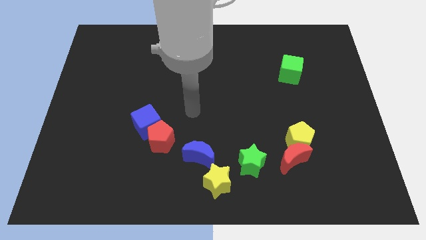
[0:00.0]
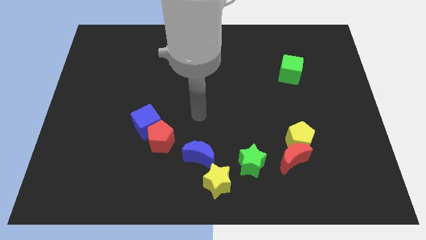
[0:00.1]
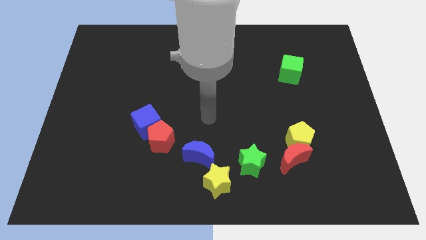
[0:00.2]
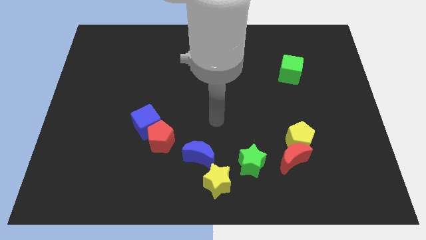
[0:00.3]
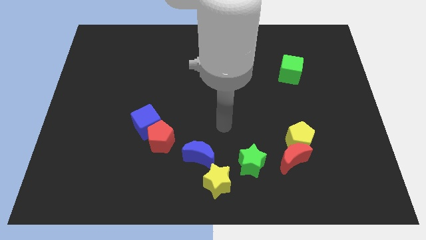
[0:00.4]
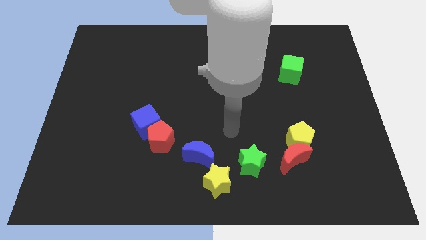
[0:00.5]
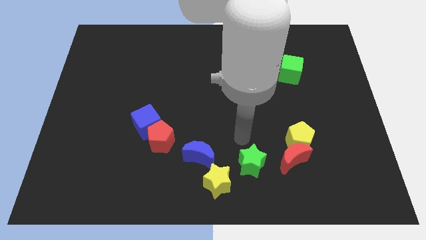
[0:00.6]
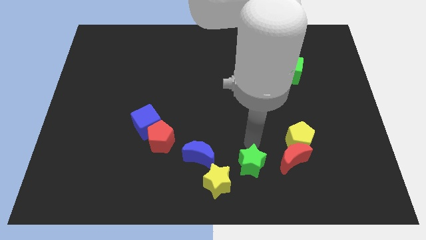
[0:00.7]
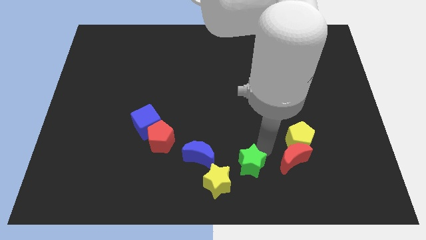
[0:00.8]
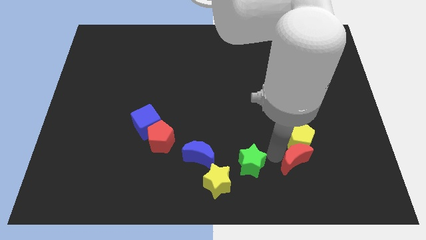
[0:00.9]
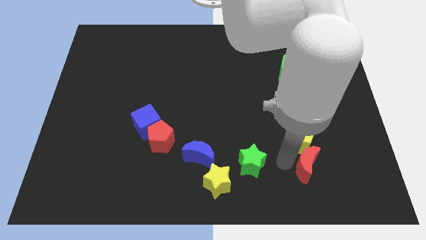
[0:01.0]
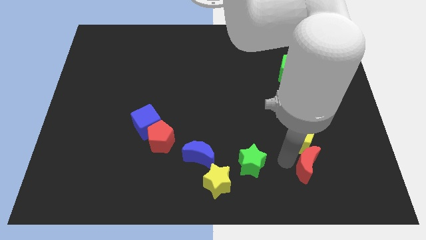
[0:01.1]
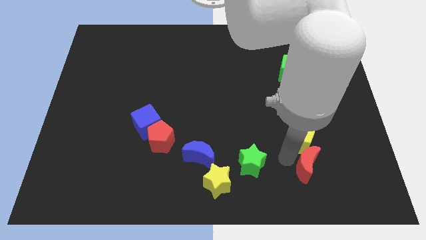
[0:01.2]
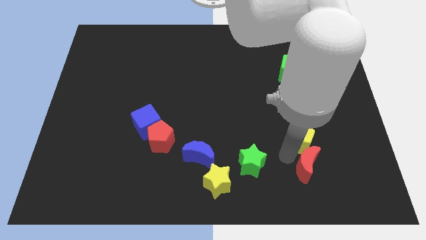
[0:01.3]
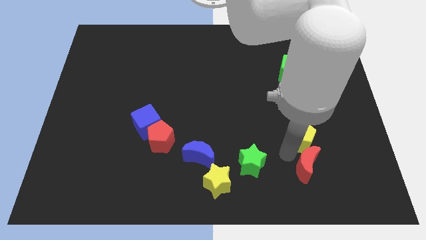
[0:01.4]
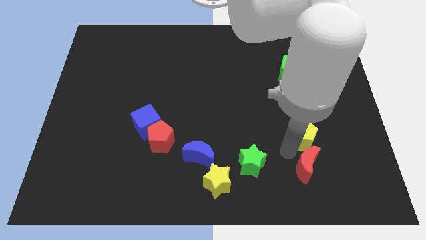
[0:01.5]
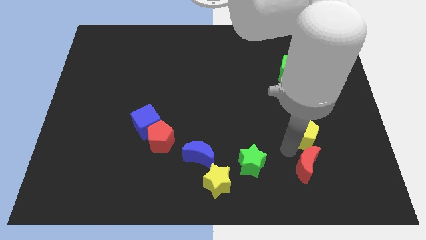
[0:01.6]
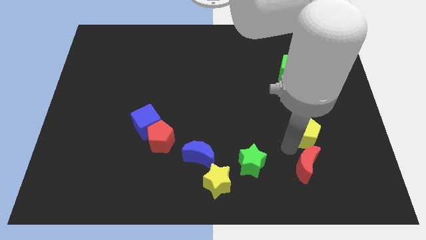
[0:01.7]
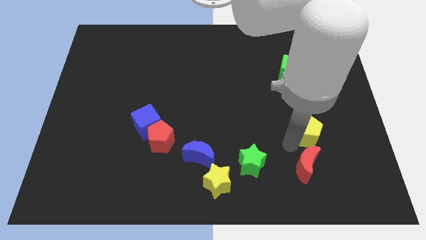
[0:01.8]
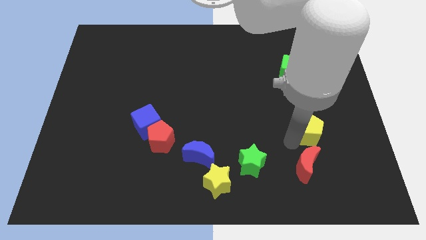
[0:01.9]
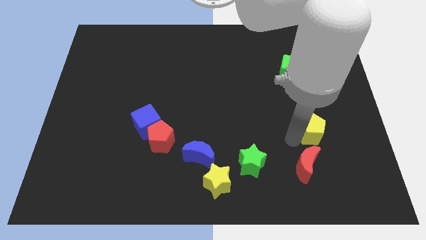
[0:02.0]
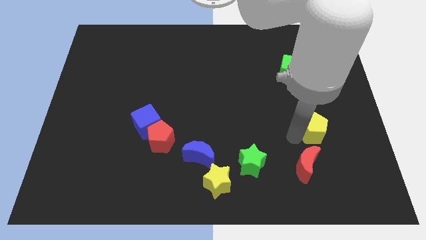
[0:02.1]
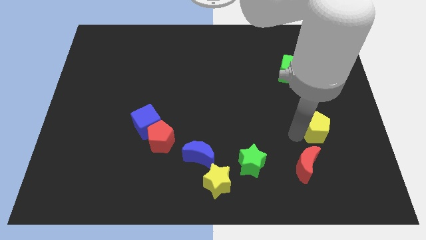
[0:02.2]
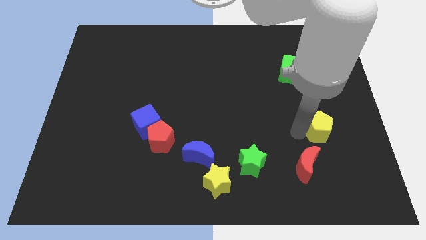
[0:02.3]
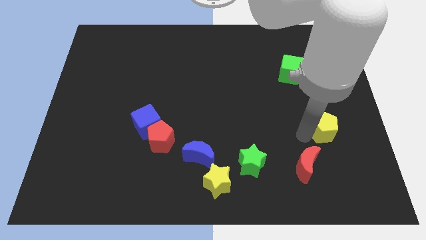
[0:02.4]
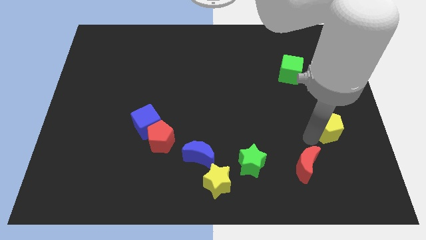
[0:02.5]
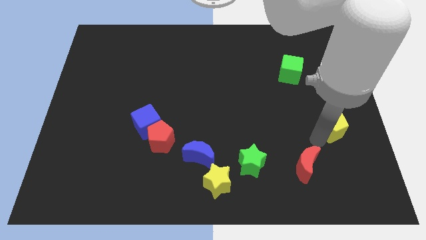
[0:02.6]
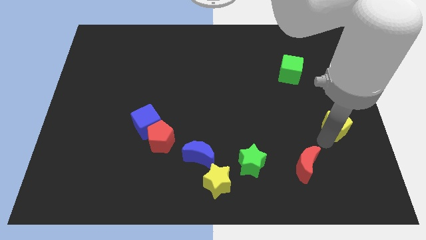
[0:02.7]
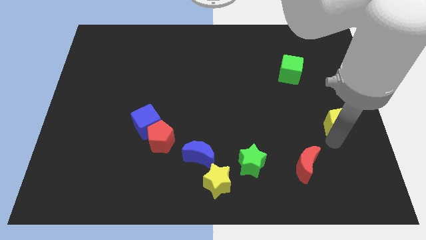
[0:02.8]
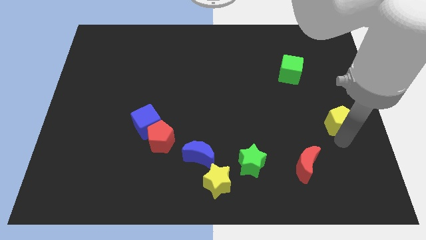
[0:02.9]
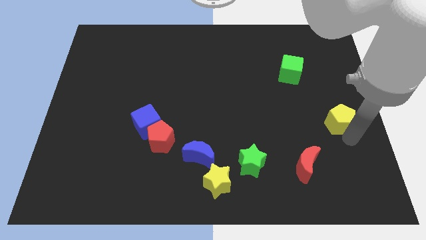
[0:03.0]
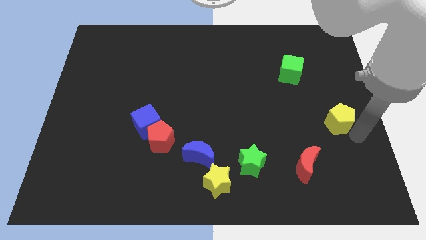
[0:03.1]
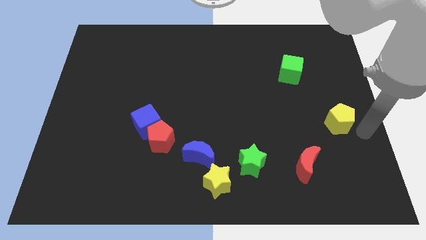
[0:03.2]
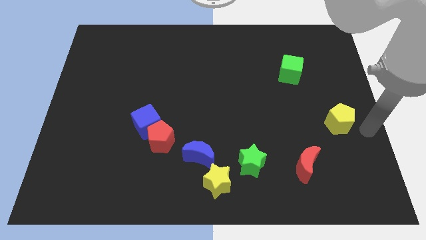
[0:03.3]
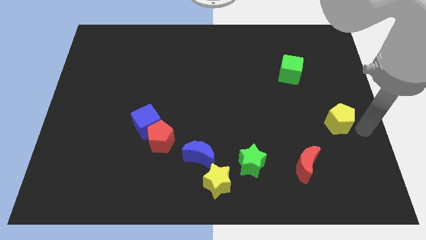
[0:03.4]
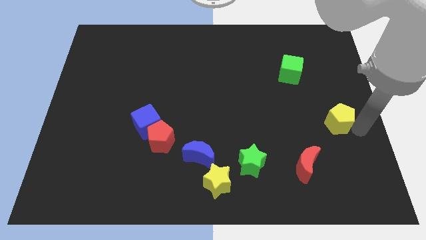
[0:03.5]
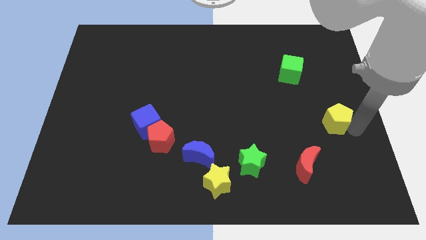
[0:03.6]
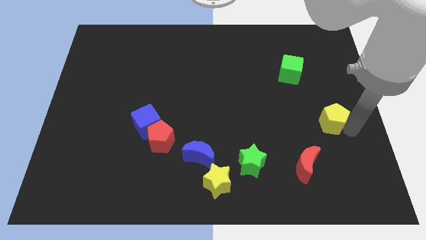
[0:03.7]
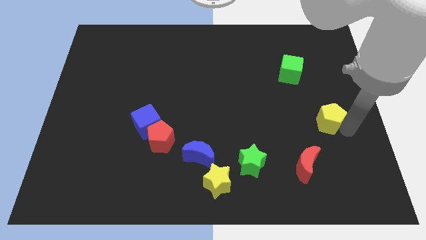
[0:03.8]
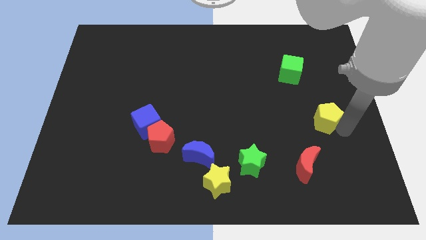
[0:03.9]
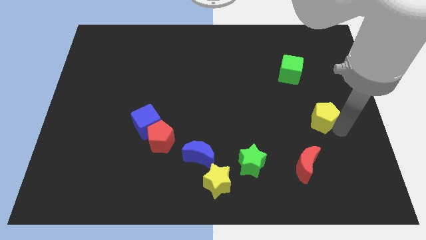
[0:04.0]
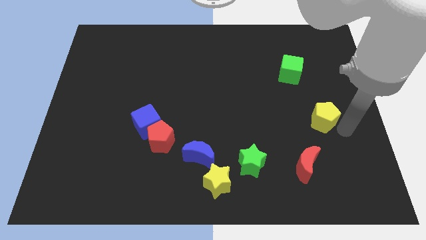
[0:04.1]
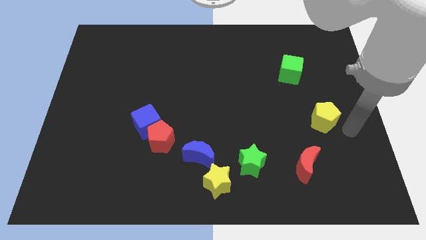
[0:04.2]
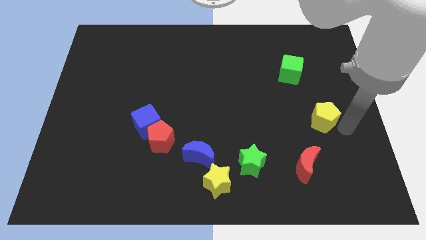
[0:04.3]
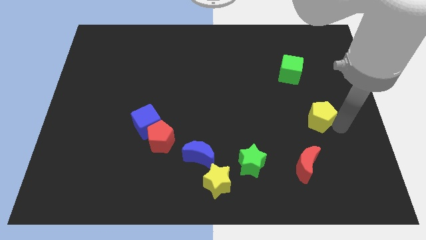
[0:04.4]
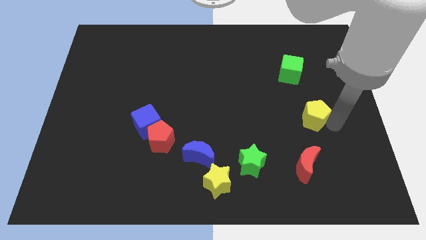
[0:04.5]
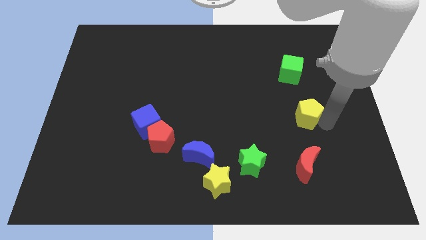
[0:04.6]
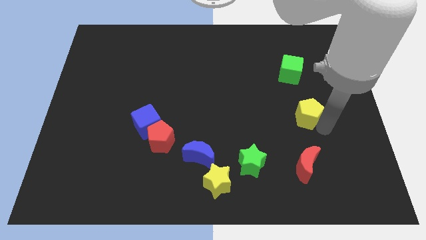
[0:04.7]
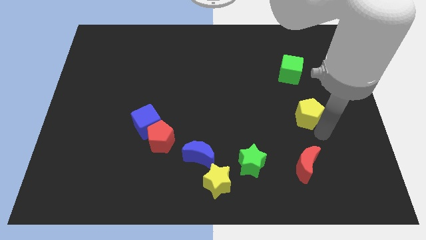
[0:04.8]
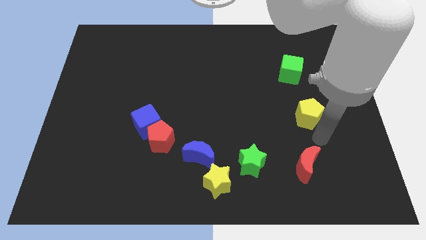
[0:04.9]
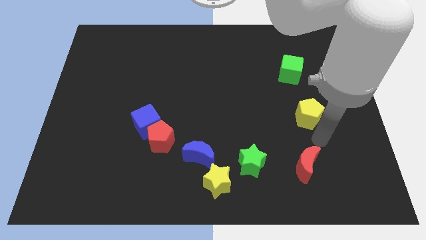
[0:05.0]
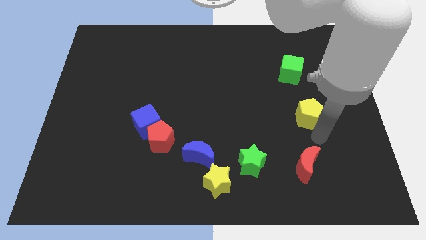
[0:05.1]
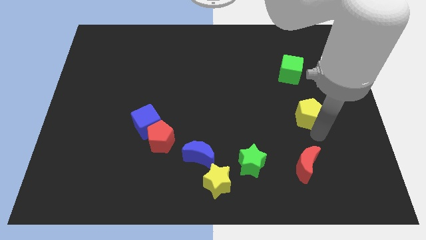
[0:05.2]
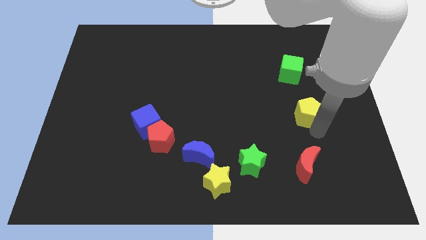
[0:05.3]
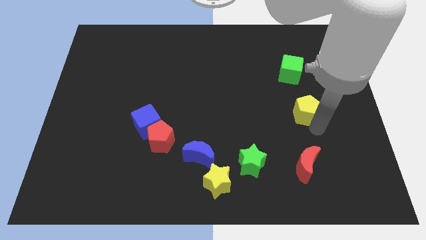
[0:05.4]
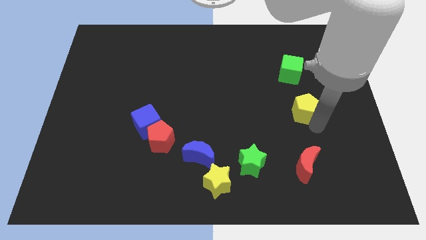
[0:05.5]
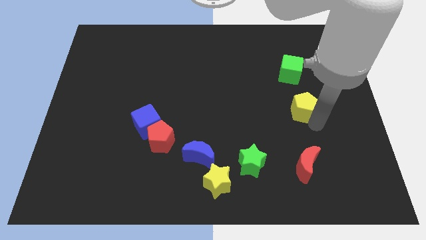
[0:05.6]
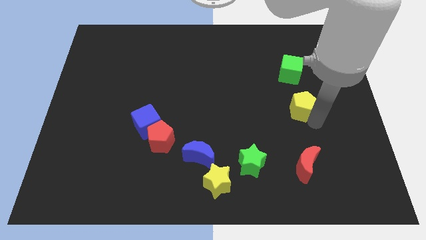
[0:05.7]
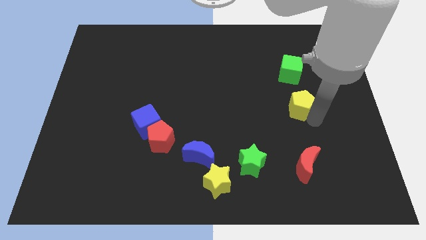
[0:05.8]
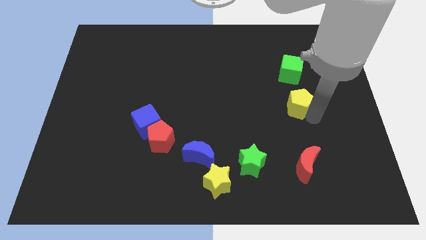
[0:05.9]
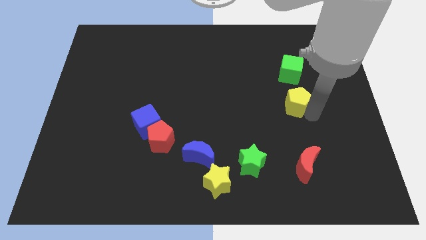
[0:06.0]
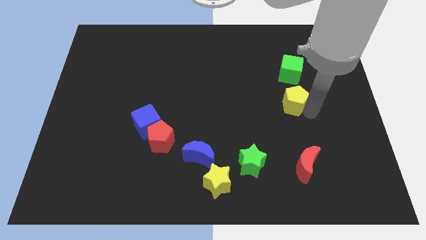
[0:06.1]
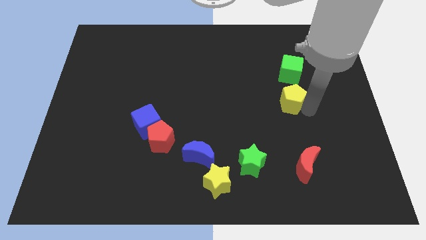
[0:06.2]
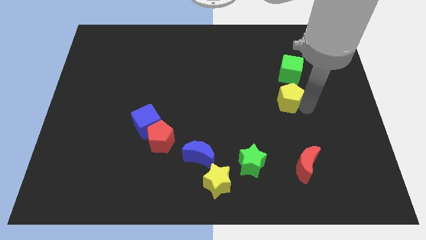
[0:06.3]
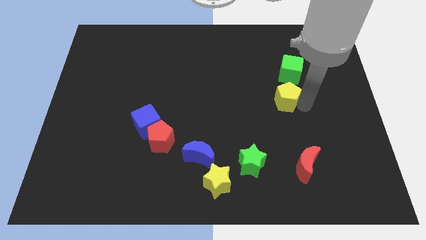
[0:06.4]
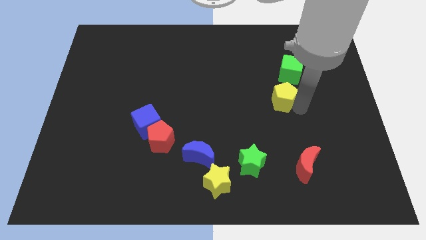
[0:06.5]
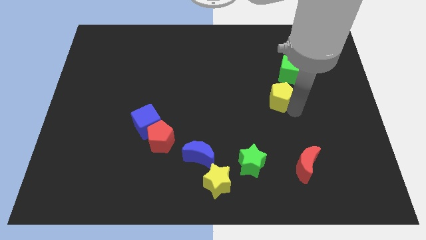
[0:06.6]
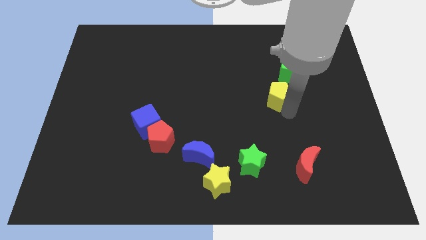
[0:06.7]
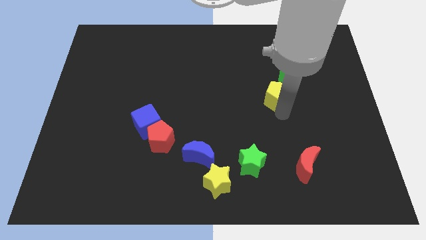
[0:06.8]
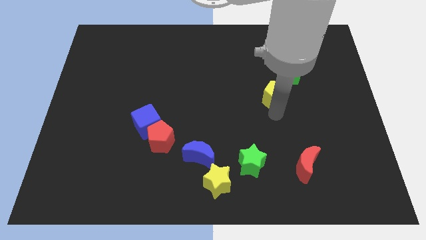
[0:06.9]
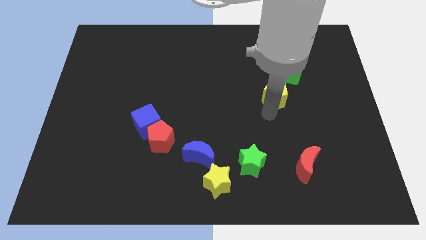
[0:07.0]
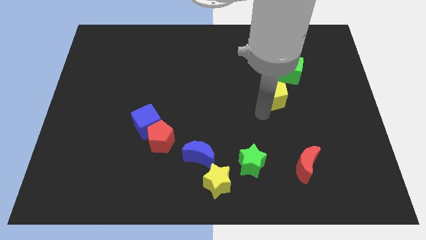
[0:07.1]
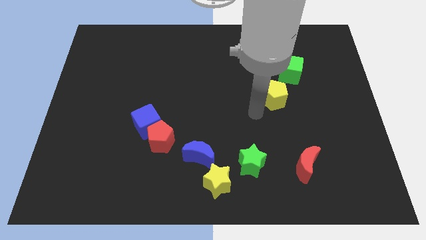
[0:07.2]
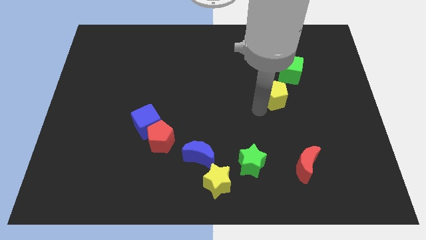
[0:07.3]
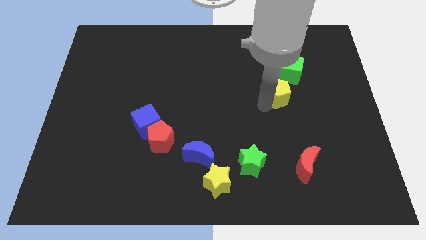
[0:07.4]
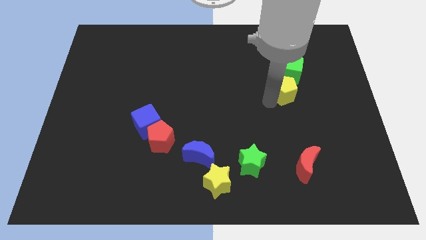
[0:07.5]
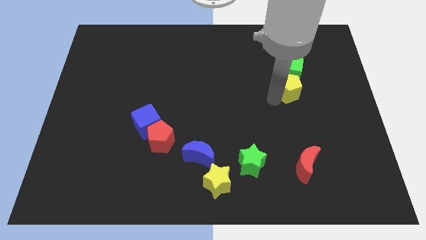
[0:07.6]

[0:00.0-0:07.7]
slide the yellow pentagon towards the green cube
